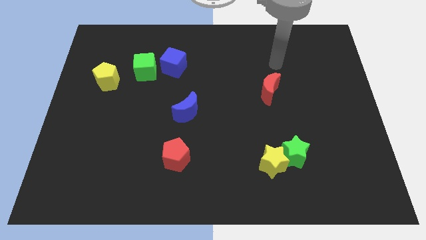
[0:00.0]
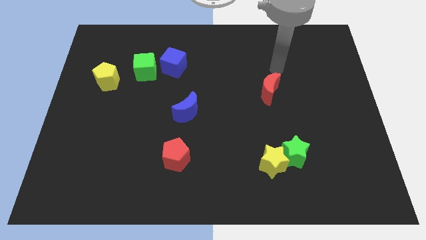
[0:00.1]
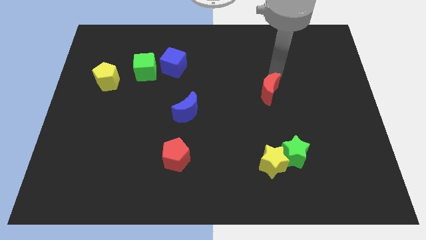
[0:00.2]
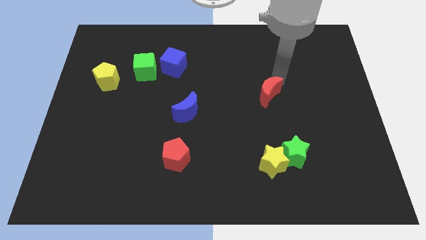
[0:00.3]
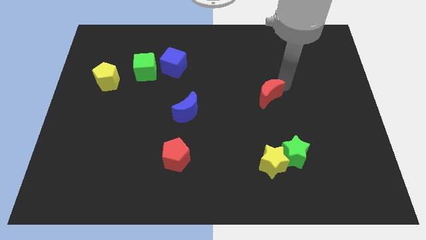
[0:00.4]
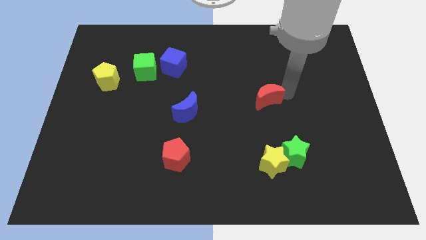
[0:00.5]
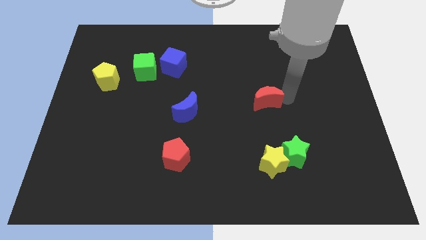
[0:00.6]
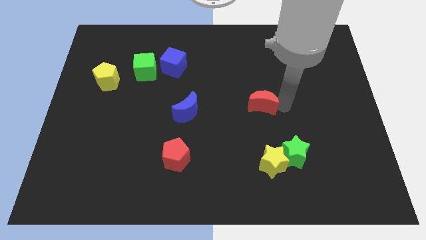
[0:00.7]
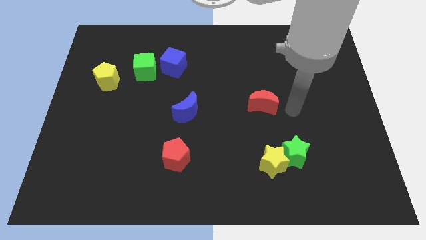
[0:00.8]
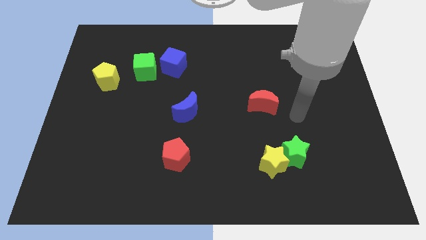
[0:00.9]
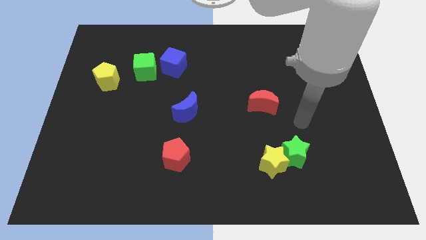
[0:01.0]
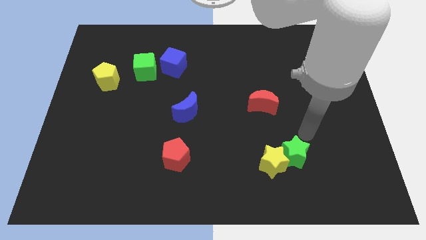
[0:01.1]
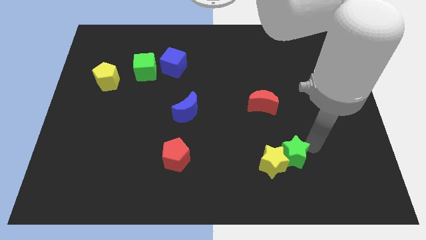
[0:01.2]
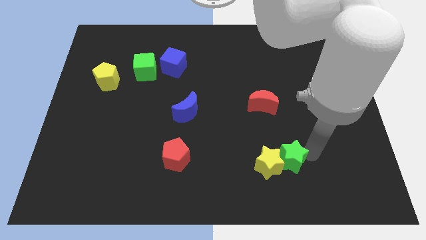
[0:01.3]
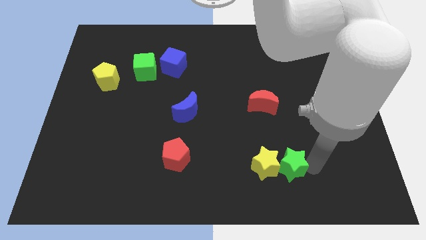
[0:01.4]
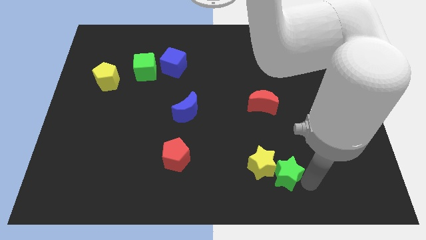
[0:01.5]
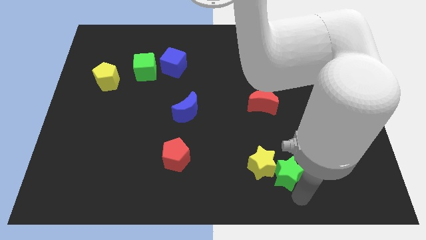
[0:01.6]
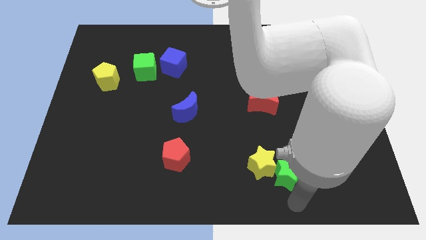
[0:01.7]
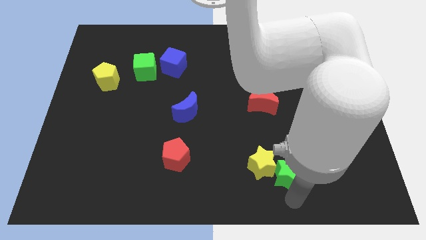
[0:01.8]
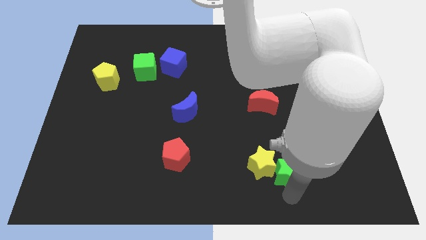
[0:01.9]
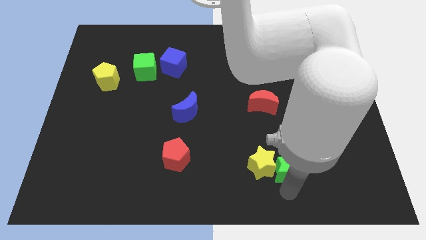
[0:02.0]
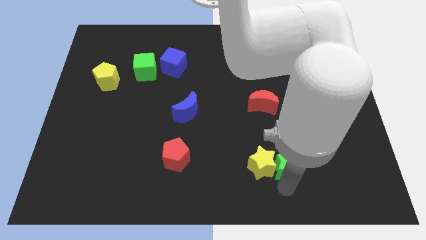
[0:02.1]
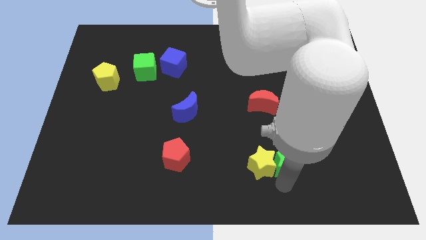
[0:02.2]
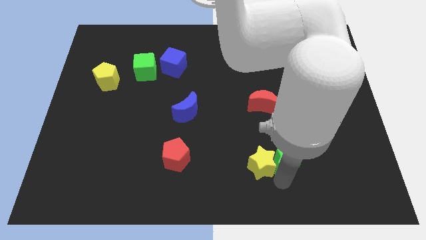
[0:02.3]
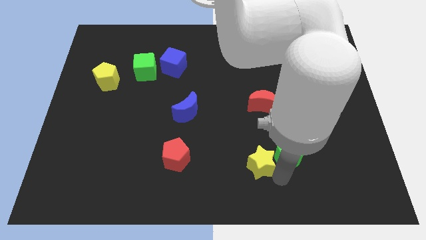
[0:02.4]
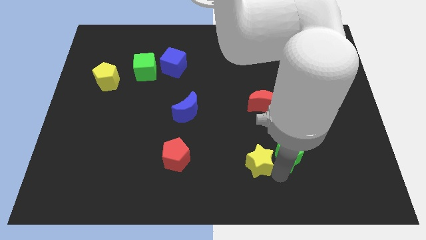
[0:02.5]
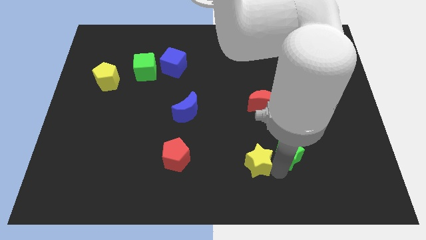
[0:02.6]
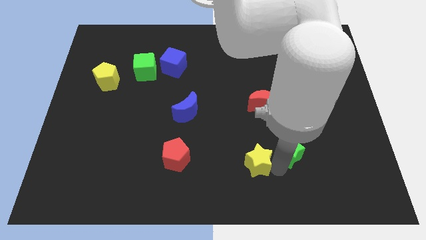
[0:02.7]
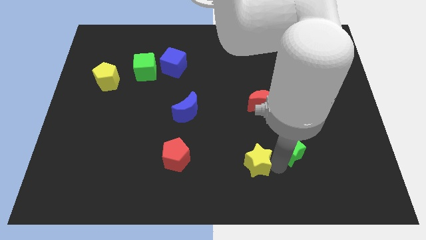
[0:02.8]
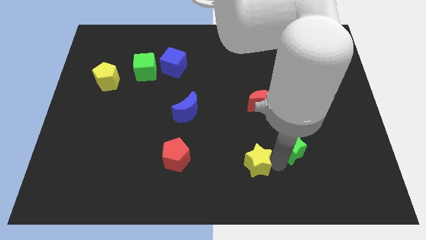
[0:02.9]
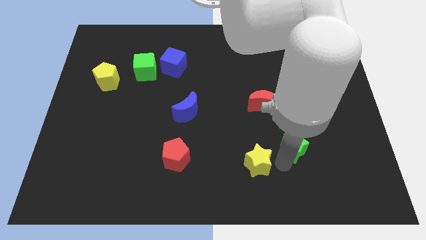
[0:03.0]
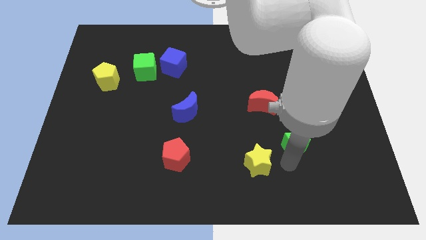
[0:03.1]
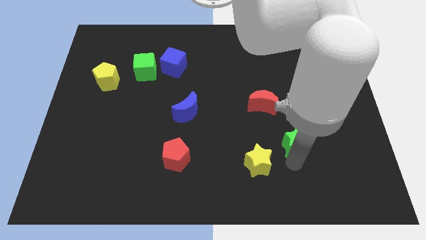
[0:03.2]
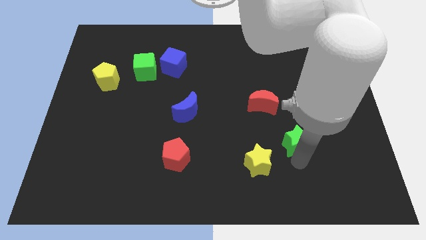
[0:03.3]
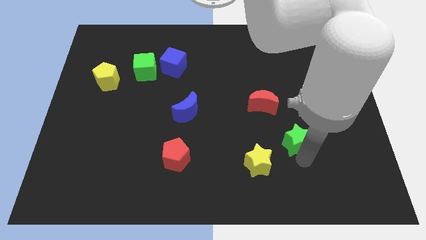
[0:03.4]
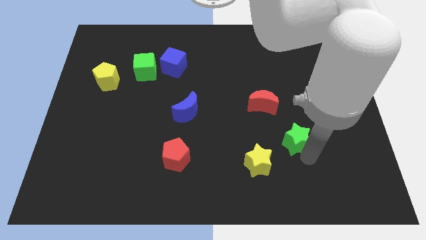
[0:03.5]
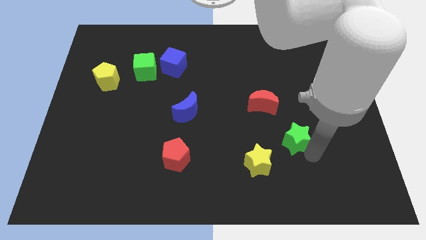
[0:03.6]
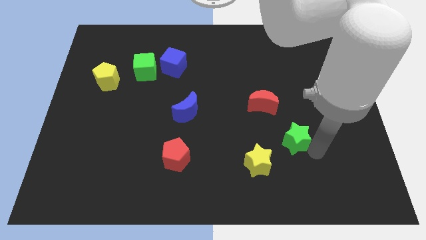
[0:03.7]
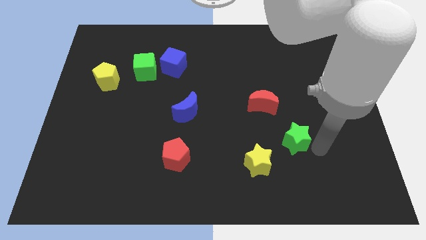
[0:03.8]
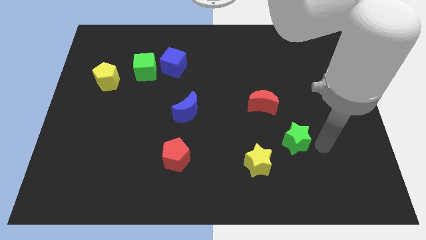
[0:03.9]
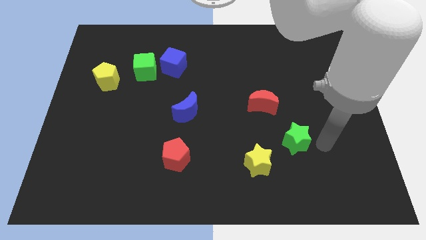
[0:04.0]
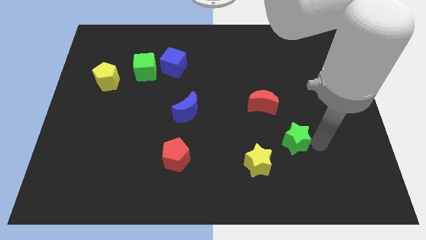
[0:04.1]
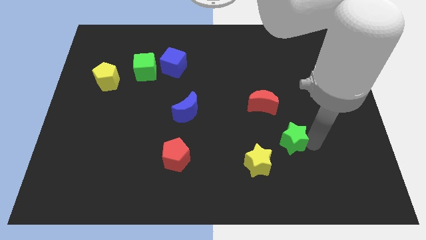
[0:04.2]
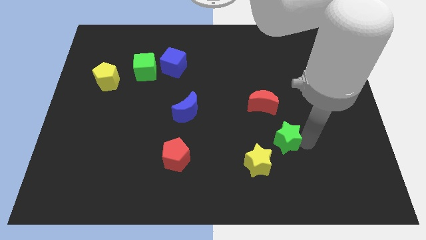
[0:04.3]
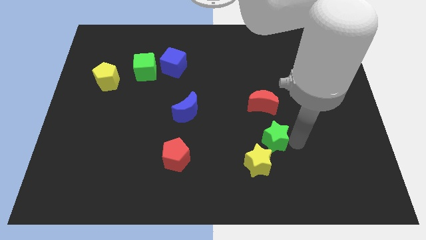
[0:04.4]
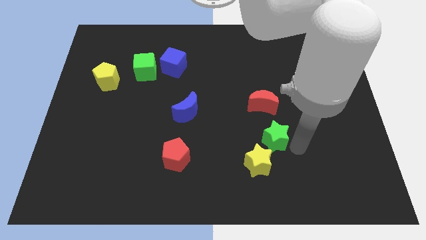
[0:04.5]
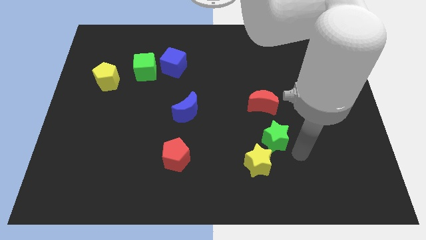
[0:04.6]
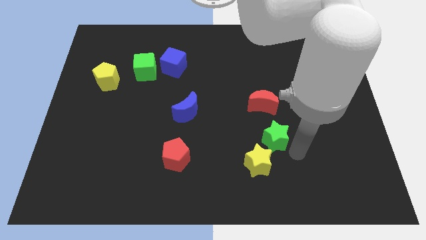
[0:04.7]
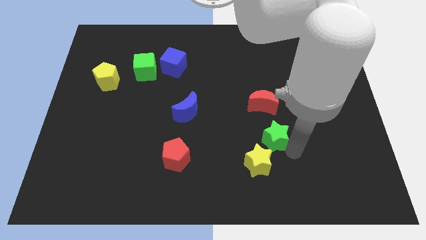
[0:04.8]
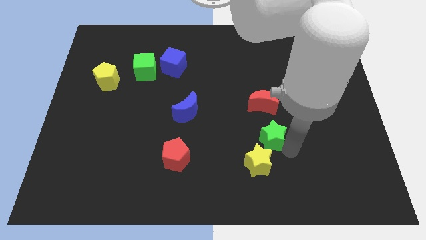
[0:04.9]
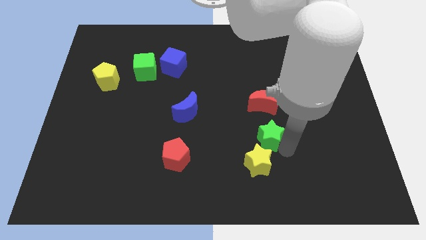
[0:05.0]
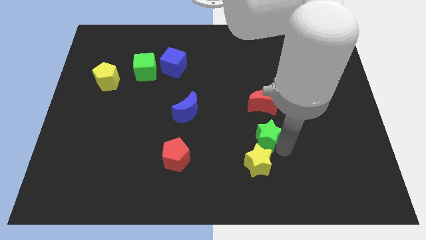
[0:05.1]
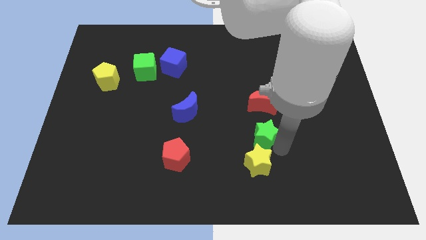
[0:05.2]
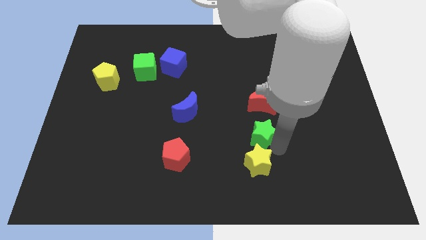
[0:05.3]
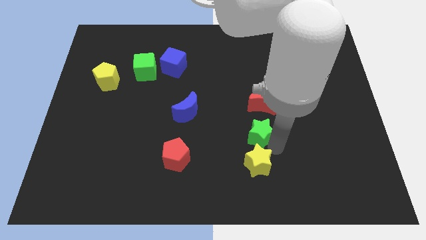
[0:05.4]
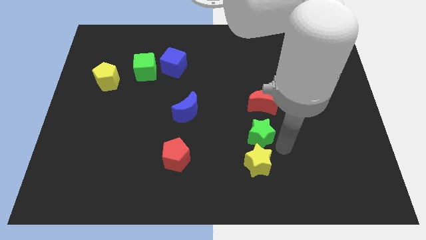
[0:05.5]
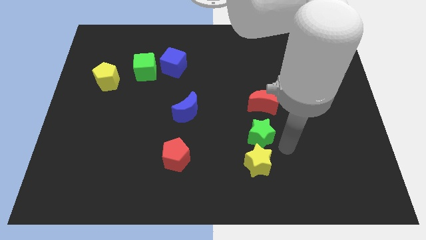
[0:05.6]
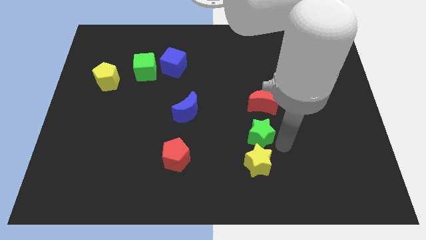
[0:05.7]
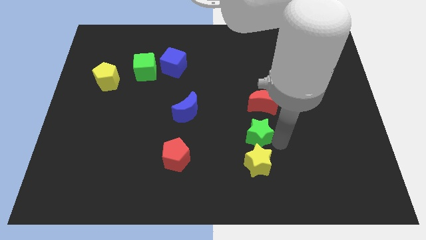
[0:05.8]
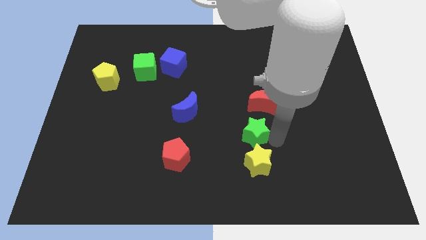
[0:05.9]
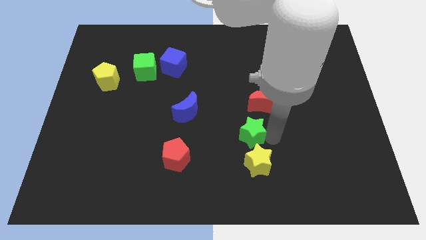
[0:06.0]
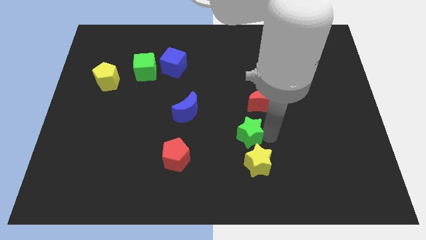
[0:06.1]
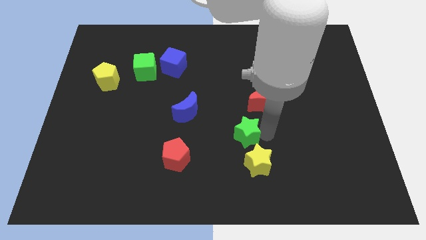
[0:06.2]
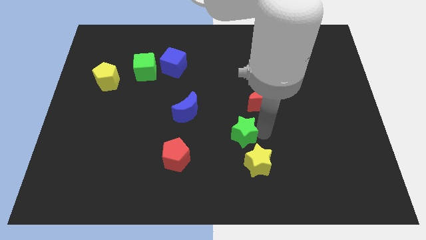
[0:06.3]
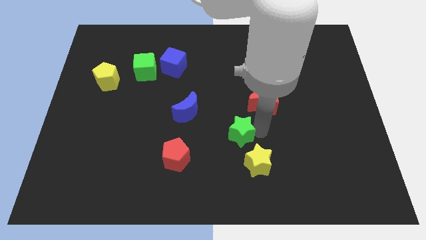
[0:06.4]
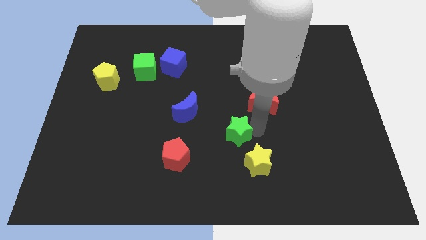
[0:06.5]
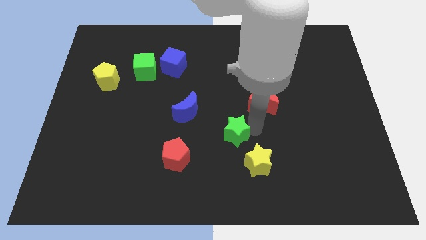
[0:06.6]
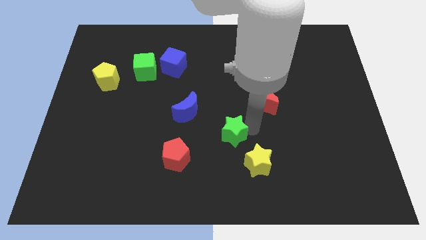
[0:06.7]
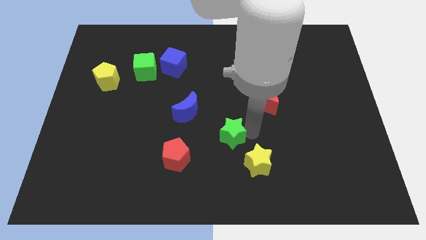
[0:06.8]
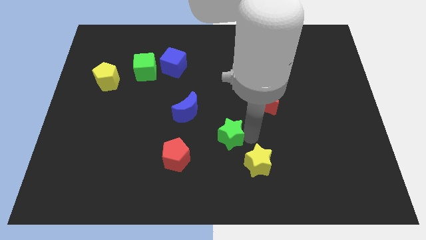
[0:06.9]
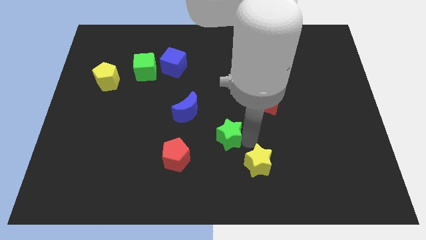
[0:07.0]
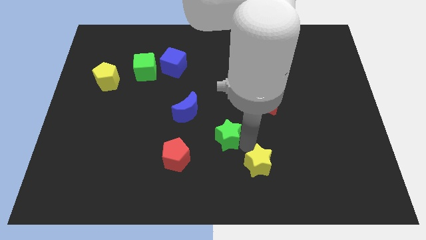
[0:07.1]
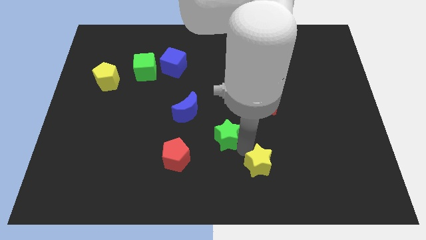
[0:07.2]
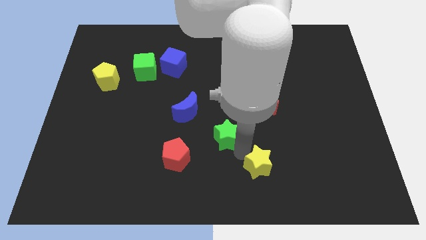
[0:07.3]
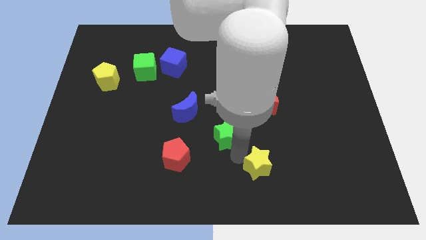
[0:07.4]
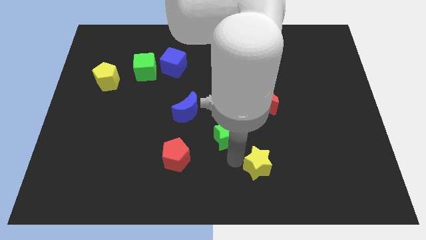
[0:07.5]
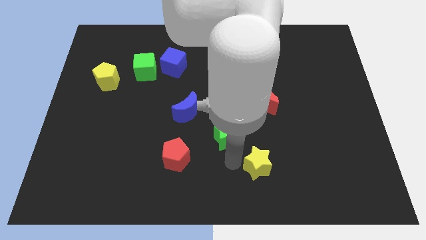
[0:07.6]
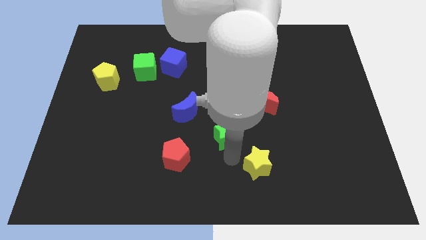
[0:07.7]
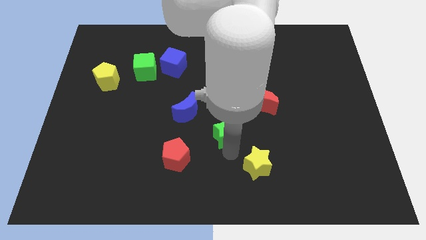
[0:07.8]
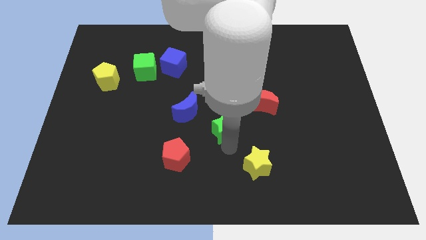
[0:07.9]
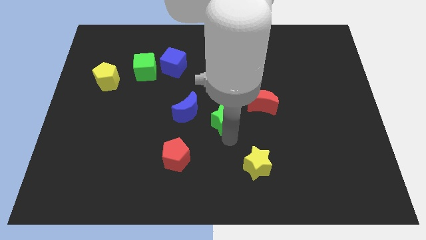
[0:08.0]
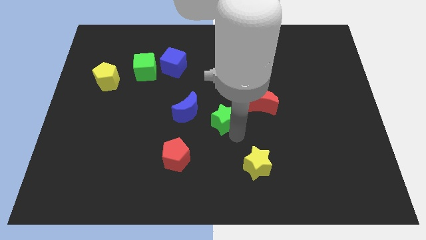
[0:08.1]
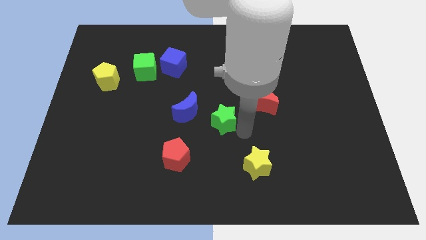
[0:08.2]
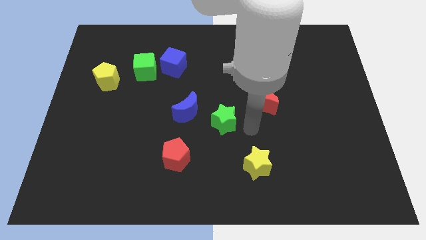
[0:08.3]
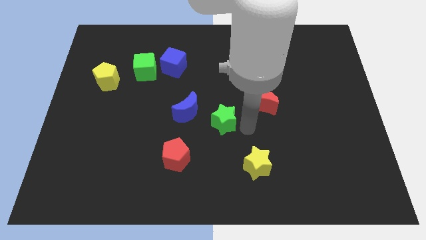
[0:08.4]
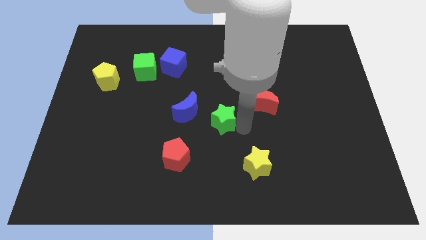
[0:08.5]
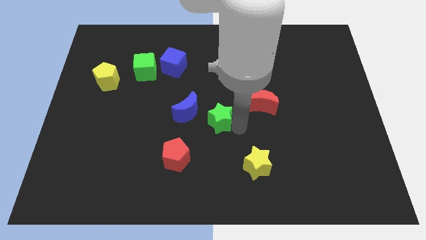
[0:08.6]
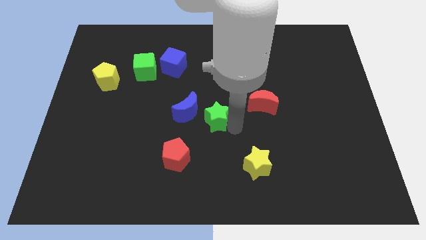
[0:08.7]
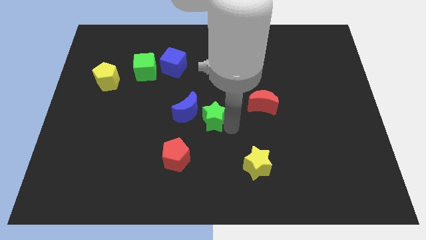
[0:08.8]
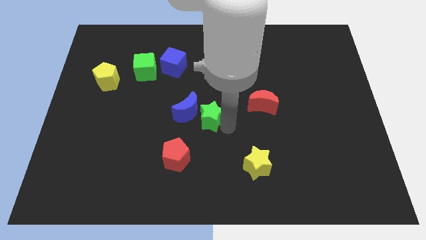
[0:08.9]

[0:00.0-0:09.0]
slide the green star next to the blue moon
